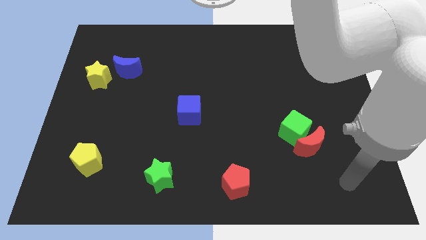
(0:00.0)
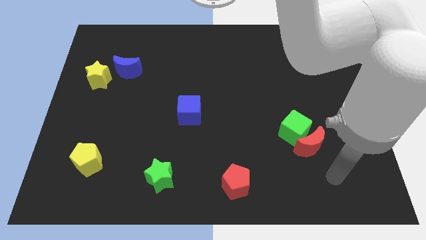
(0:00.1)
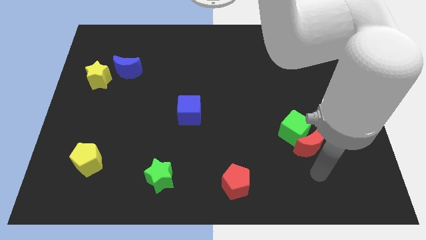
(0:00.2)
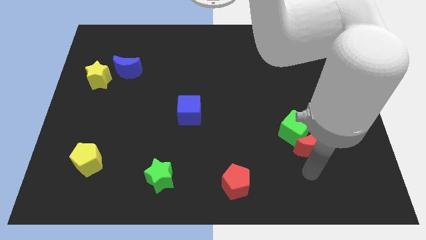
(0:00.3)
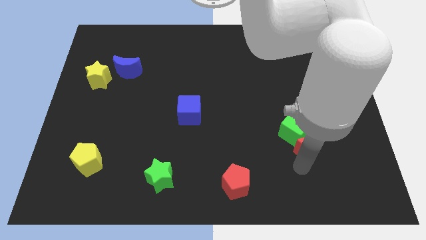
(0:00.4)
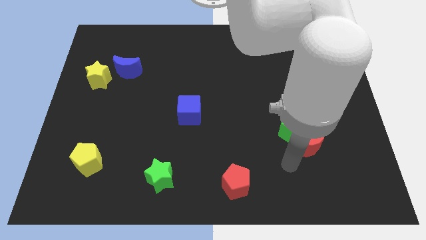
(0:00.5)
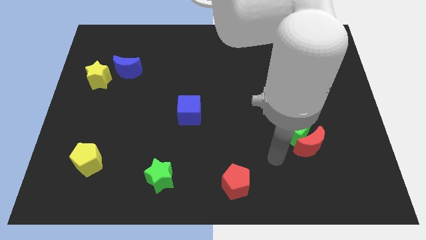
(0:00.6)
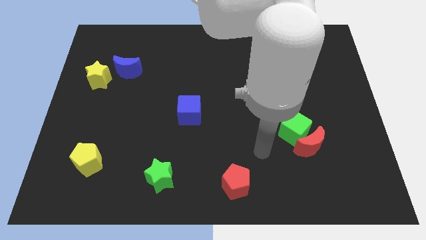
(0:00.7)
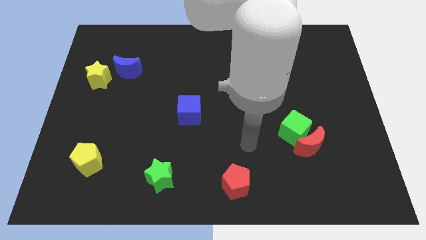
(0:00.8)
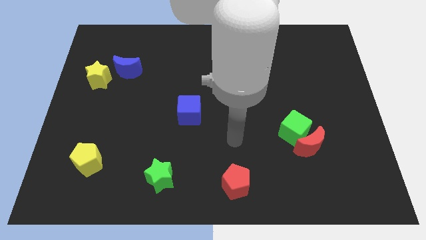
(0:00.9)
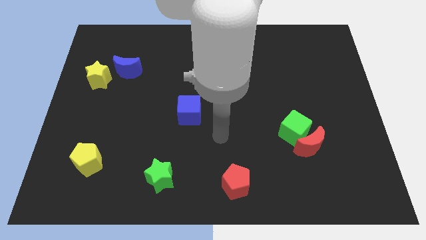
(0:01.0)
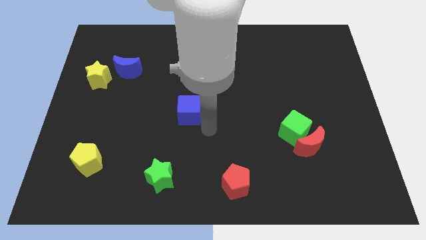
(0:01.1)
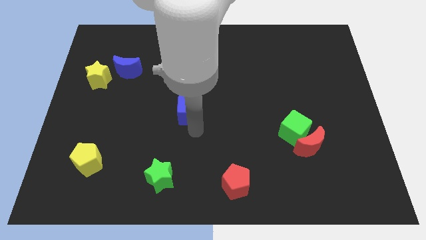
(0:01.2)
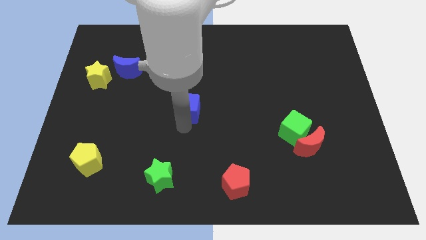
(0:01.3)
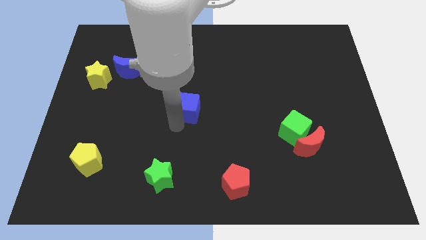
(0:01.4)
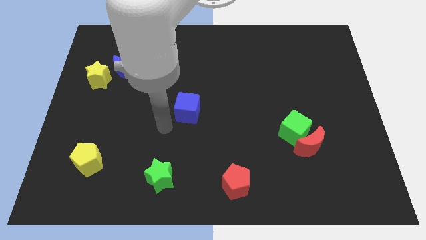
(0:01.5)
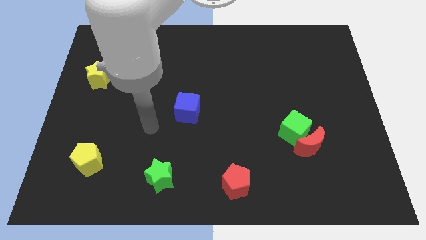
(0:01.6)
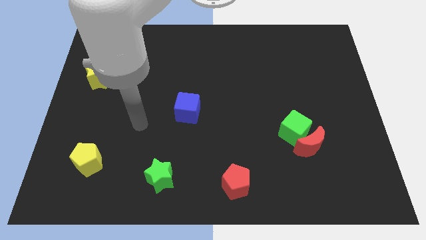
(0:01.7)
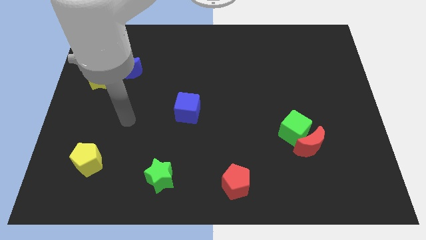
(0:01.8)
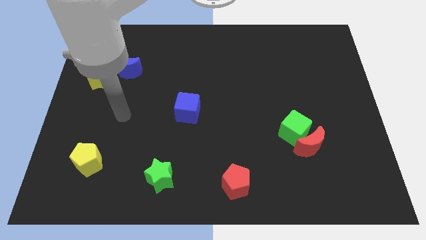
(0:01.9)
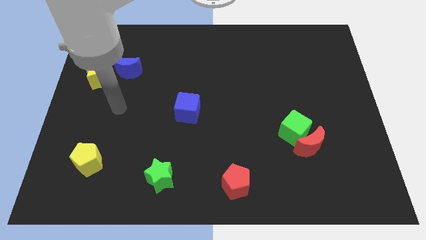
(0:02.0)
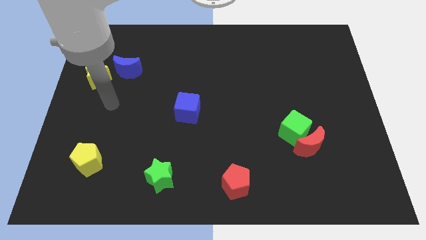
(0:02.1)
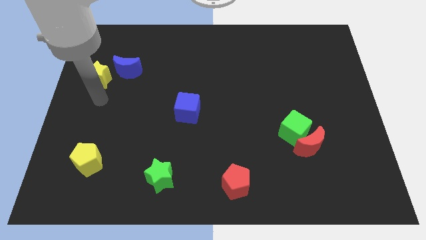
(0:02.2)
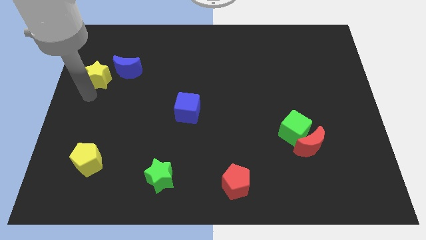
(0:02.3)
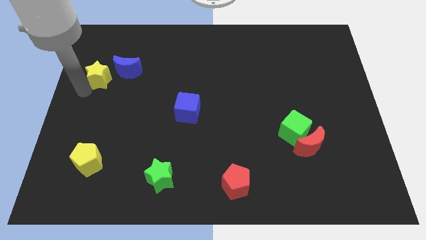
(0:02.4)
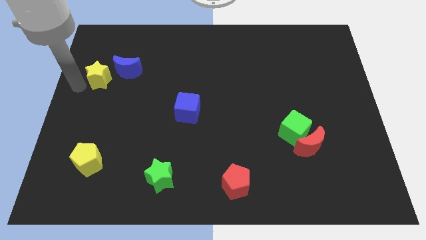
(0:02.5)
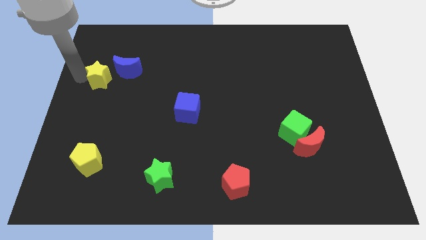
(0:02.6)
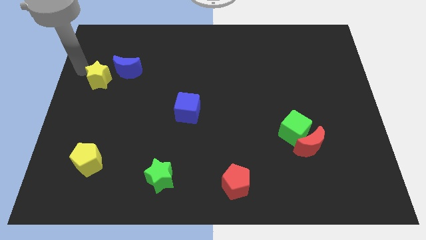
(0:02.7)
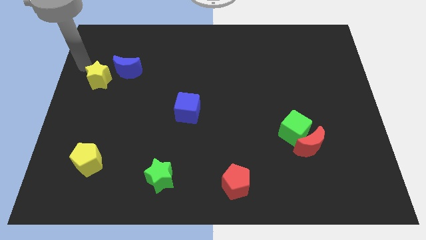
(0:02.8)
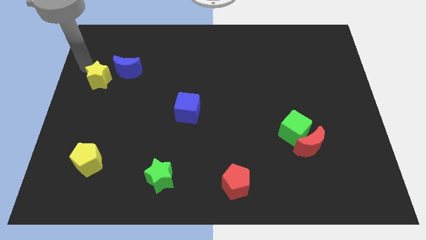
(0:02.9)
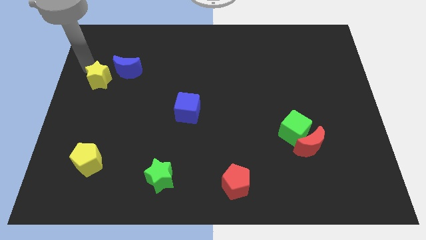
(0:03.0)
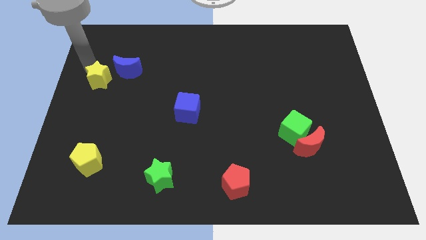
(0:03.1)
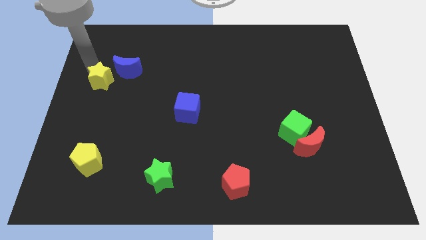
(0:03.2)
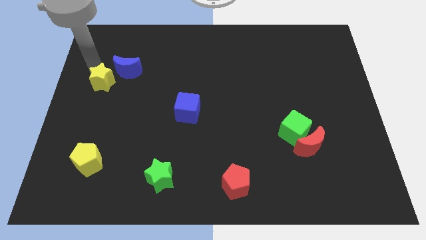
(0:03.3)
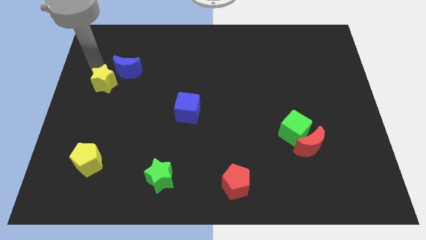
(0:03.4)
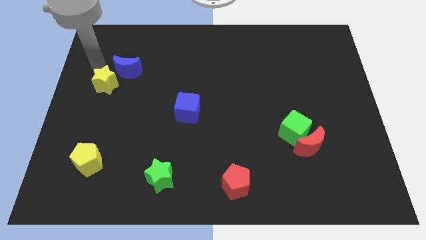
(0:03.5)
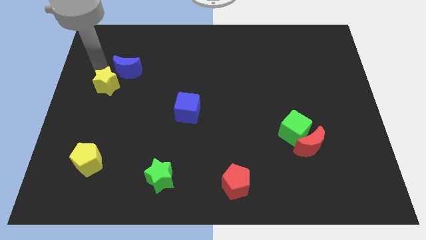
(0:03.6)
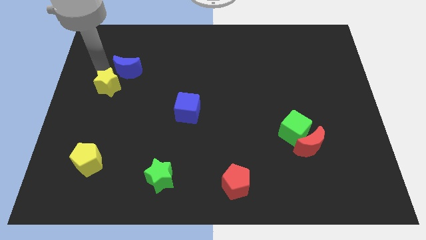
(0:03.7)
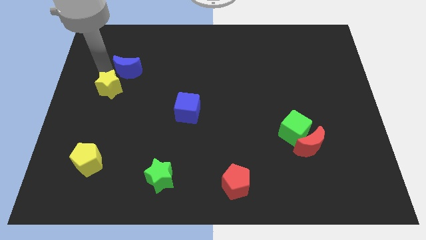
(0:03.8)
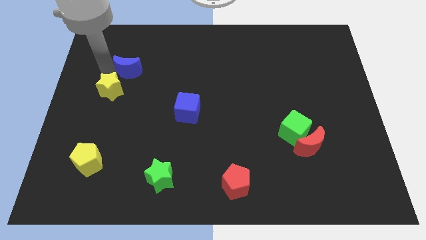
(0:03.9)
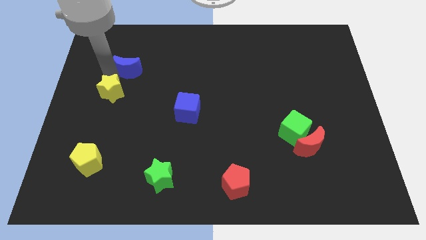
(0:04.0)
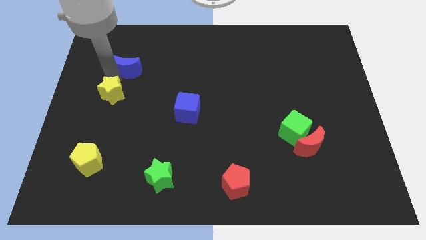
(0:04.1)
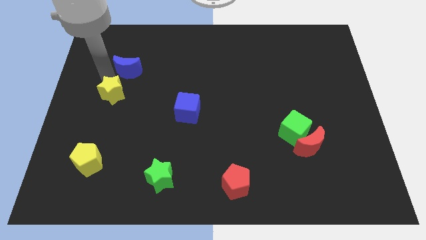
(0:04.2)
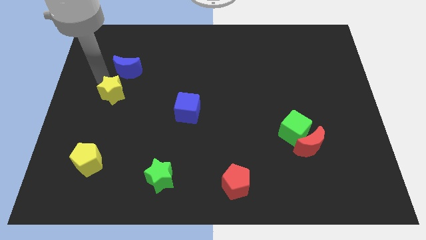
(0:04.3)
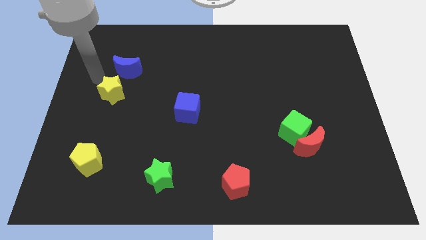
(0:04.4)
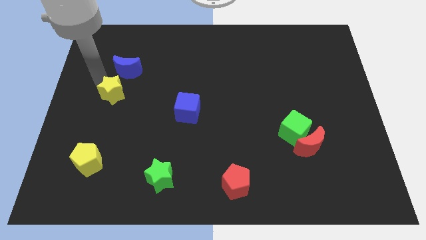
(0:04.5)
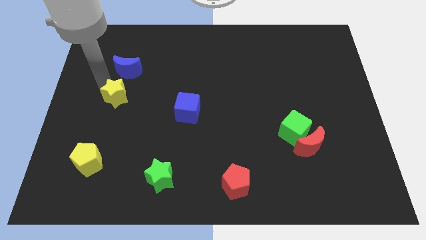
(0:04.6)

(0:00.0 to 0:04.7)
slide the yellow star diagonally down and right somewhat

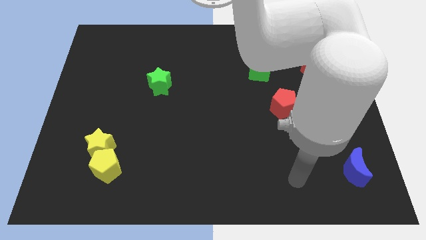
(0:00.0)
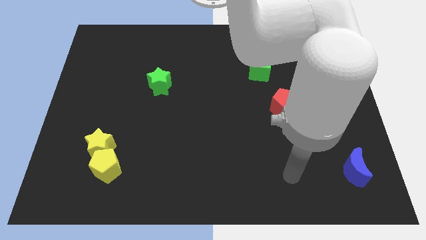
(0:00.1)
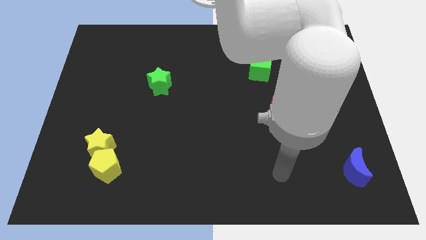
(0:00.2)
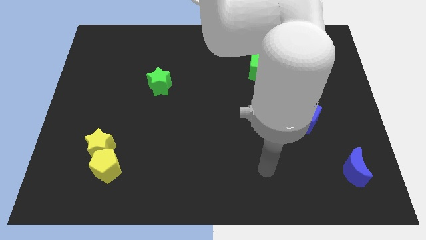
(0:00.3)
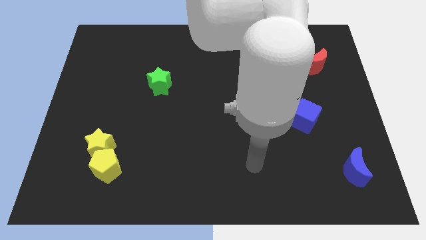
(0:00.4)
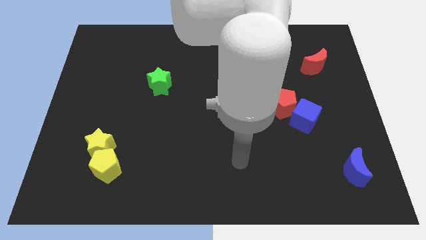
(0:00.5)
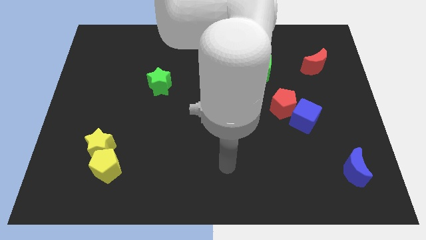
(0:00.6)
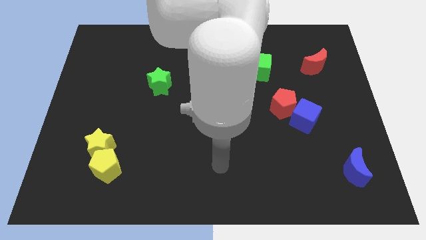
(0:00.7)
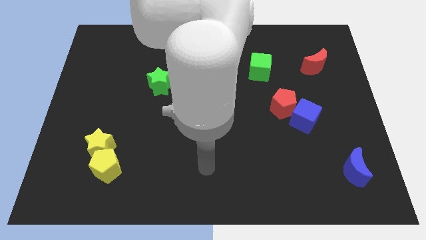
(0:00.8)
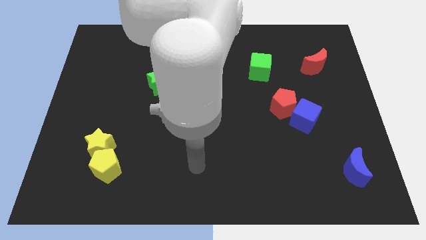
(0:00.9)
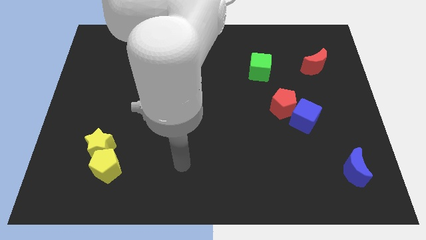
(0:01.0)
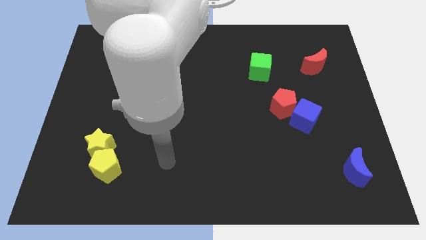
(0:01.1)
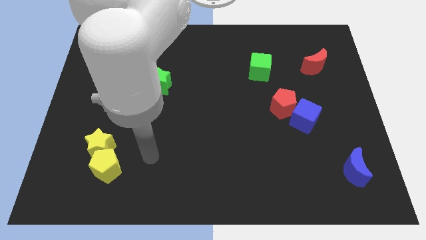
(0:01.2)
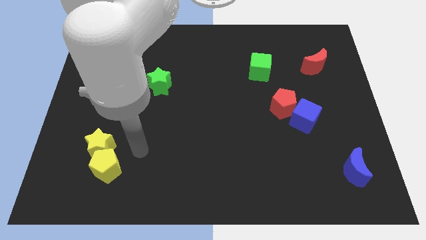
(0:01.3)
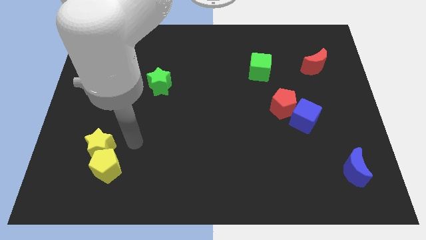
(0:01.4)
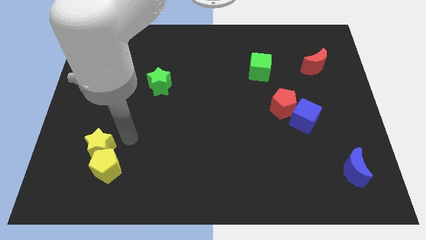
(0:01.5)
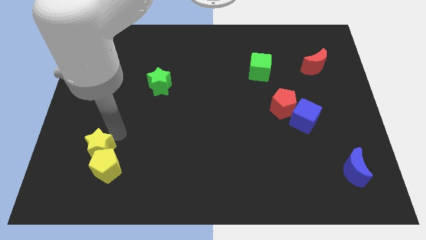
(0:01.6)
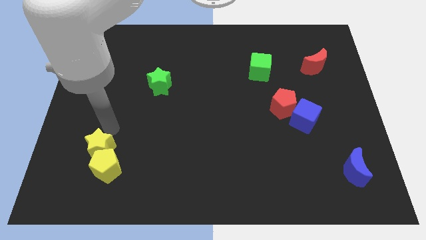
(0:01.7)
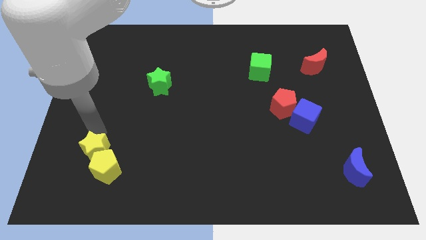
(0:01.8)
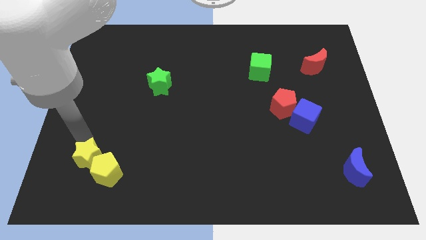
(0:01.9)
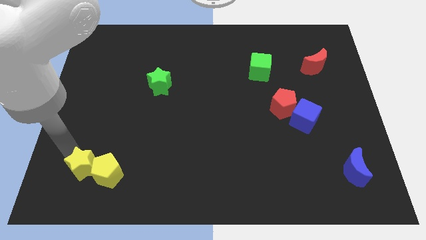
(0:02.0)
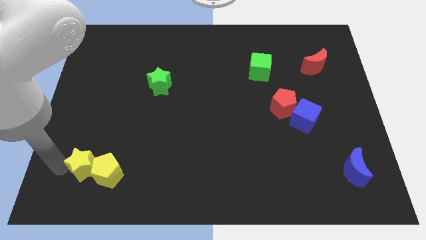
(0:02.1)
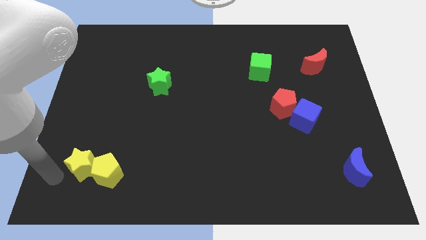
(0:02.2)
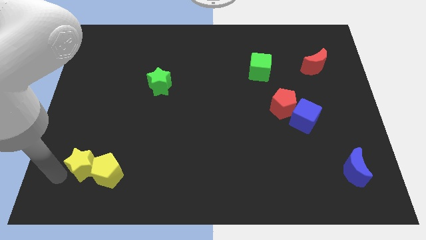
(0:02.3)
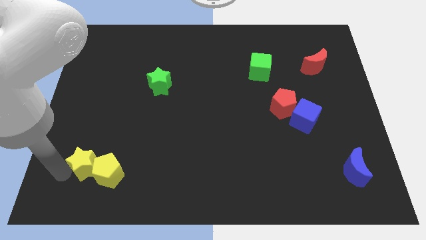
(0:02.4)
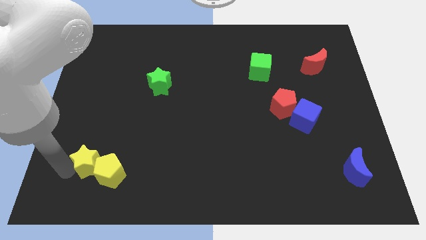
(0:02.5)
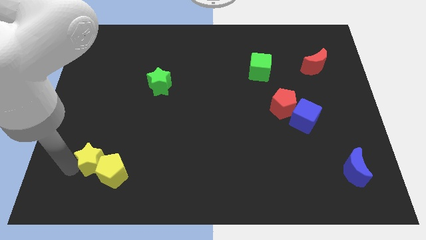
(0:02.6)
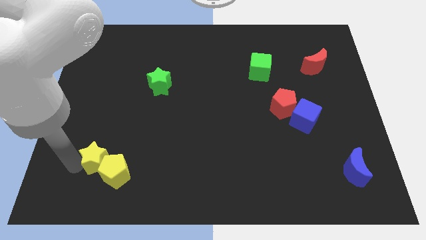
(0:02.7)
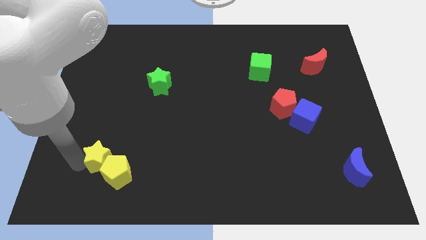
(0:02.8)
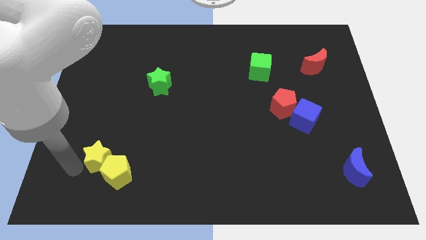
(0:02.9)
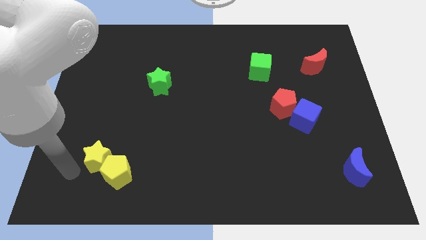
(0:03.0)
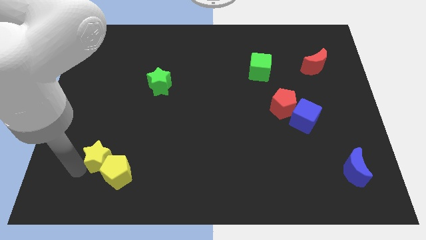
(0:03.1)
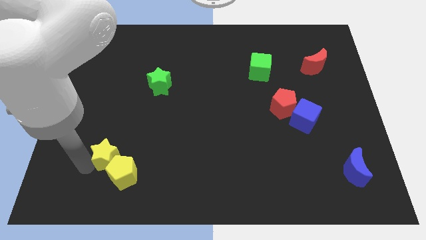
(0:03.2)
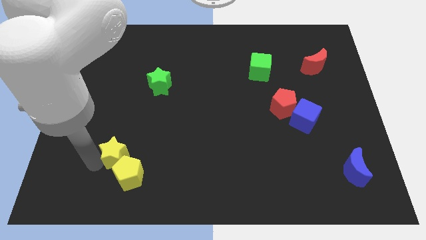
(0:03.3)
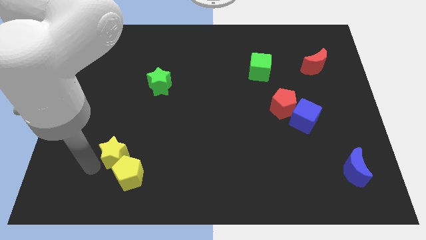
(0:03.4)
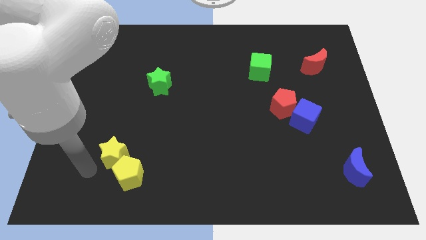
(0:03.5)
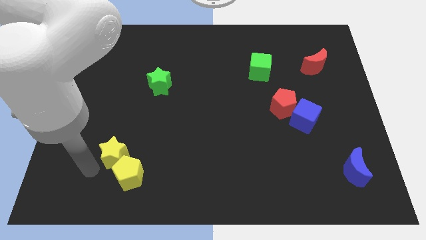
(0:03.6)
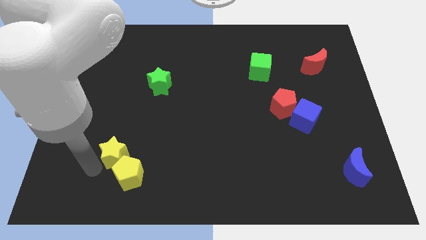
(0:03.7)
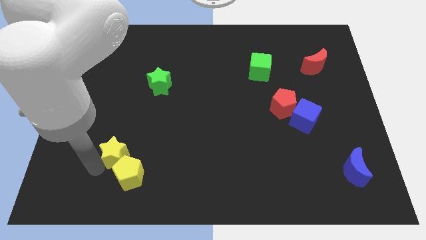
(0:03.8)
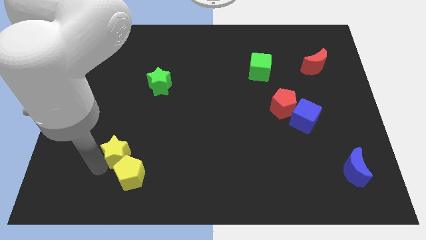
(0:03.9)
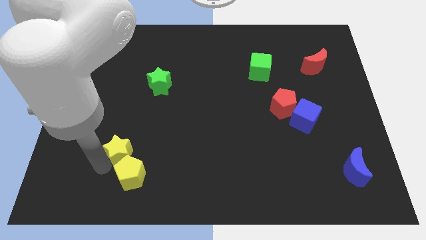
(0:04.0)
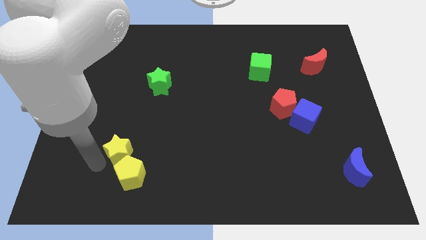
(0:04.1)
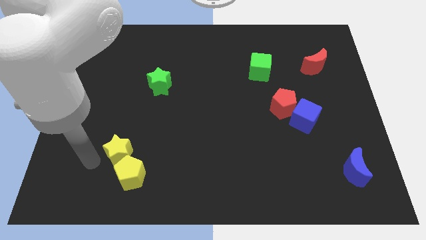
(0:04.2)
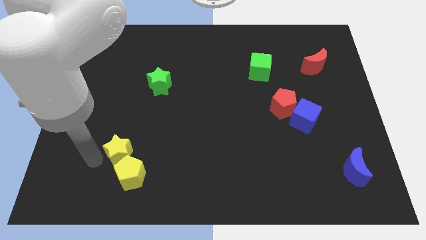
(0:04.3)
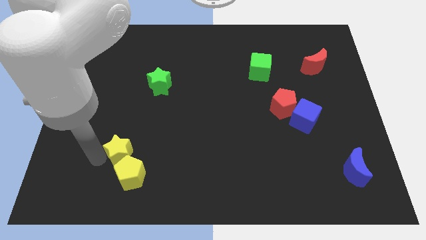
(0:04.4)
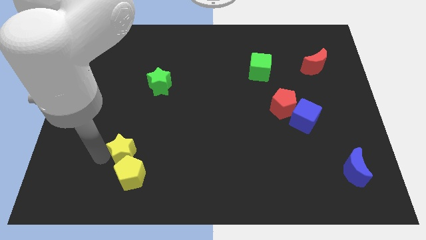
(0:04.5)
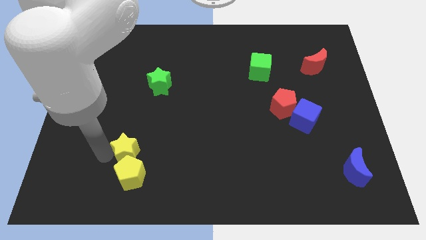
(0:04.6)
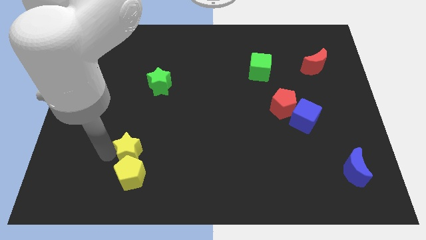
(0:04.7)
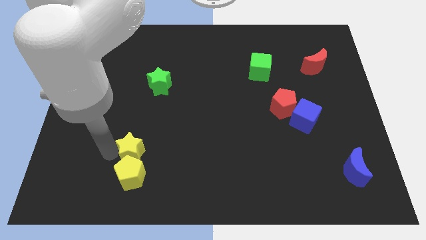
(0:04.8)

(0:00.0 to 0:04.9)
slide the yellow star to the right a bit
